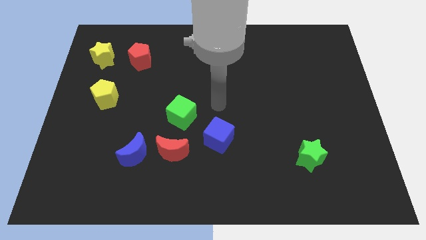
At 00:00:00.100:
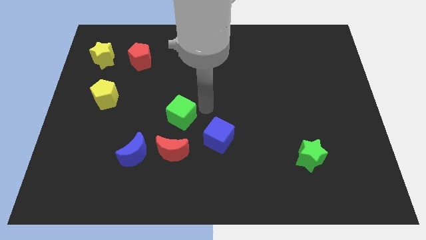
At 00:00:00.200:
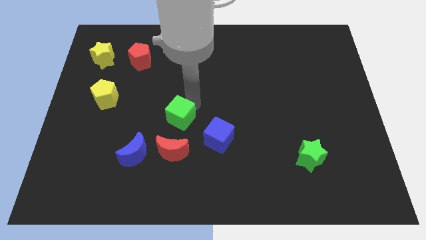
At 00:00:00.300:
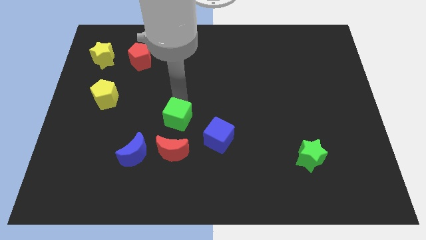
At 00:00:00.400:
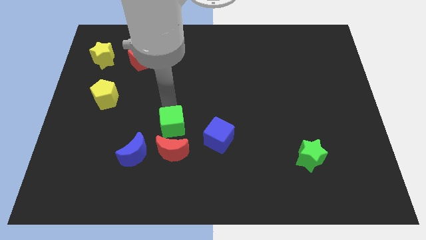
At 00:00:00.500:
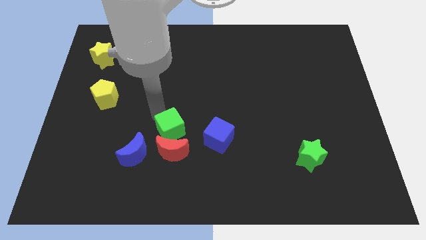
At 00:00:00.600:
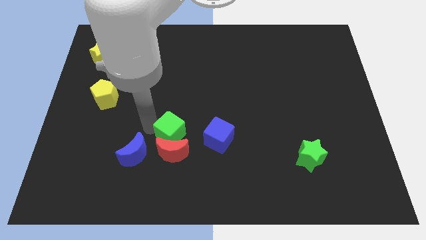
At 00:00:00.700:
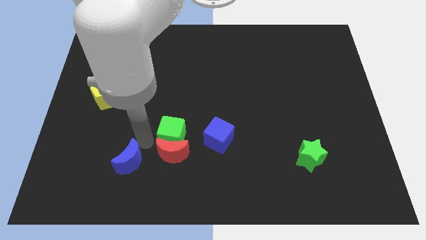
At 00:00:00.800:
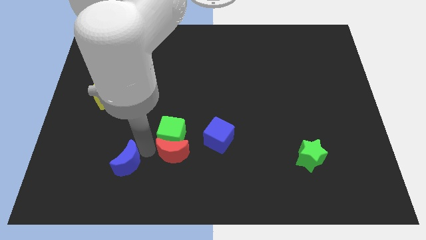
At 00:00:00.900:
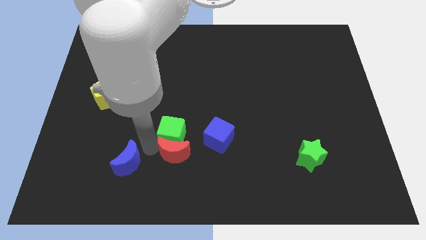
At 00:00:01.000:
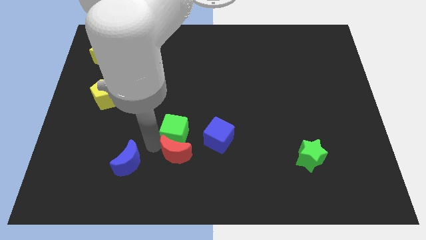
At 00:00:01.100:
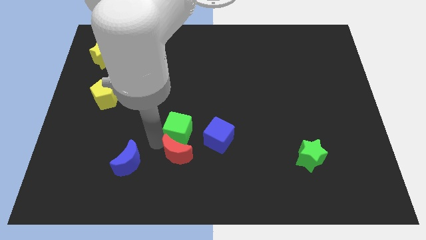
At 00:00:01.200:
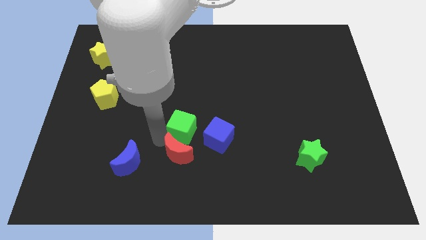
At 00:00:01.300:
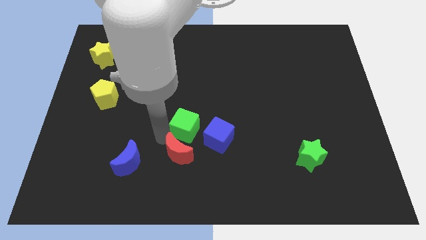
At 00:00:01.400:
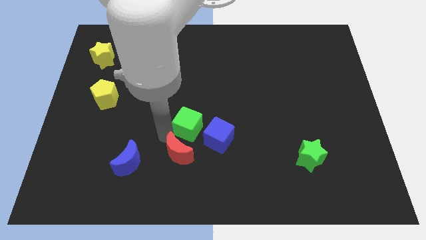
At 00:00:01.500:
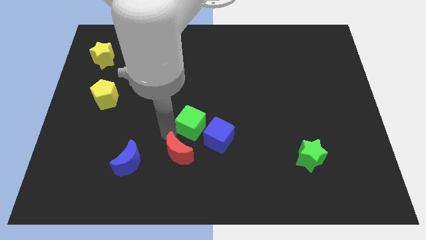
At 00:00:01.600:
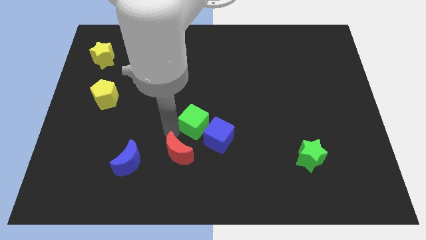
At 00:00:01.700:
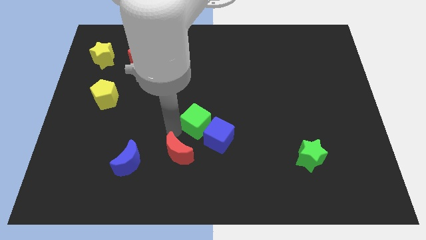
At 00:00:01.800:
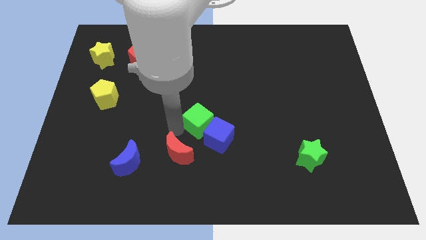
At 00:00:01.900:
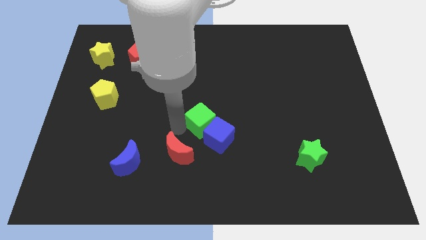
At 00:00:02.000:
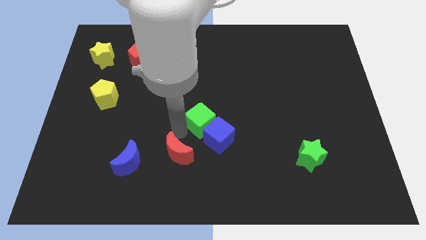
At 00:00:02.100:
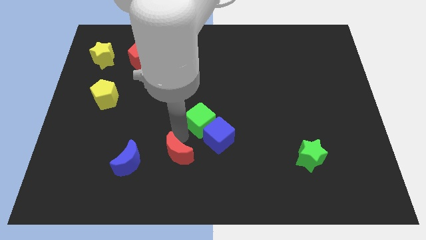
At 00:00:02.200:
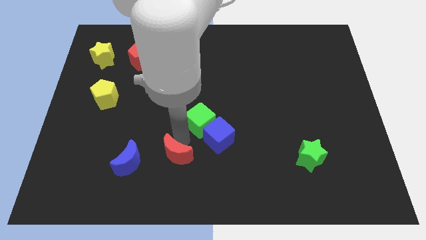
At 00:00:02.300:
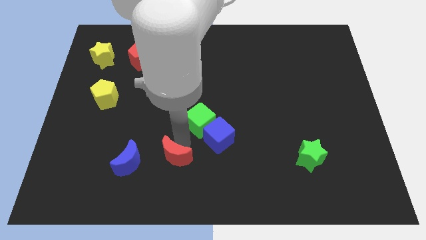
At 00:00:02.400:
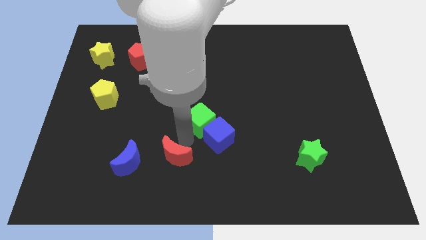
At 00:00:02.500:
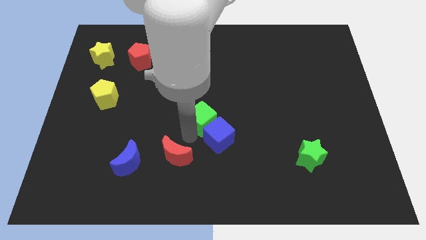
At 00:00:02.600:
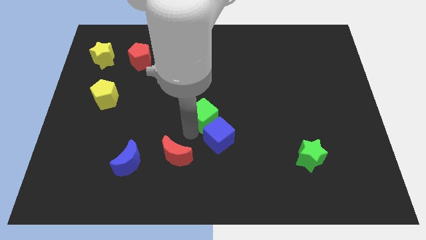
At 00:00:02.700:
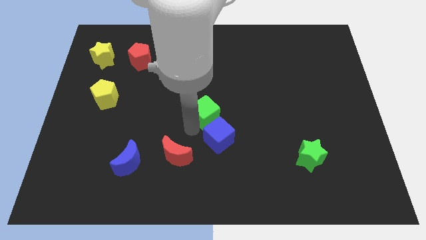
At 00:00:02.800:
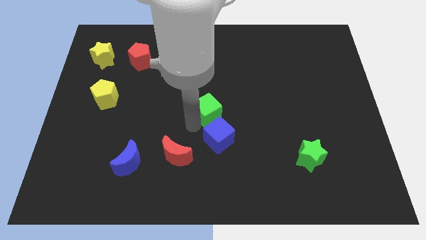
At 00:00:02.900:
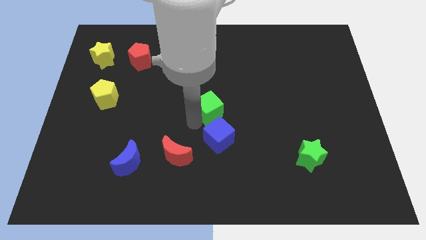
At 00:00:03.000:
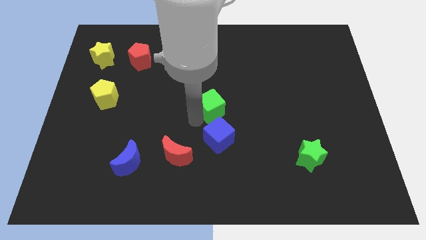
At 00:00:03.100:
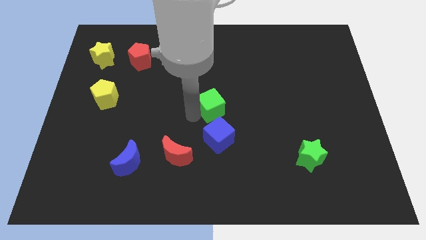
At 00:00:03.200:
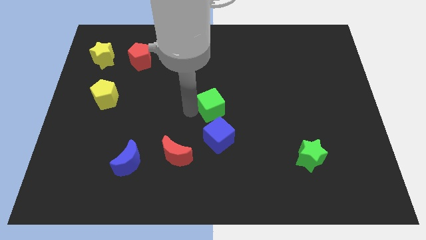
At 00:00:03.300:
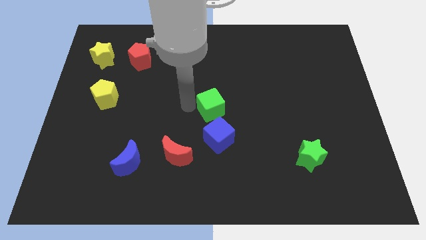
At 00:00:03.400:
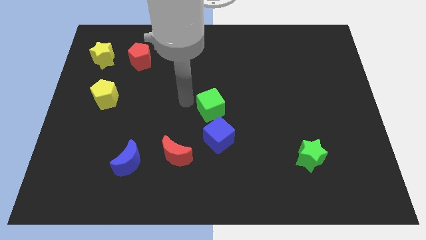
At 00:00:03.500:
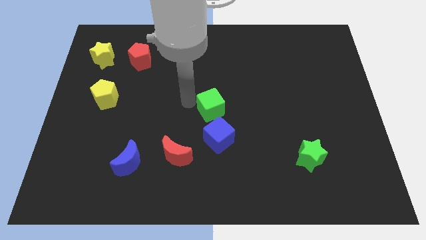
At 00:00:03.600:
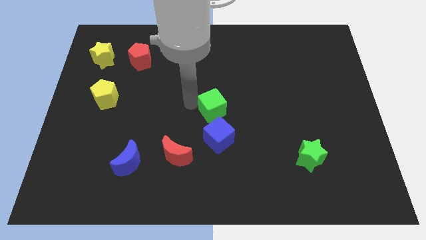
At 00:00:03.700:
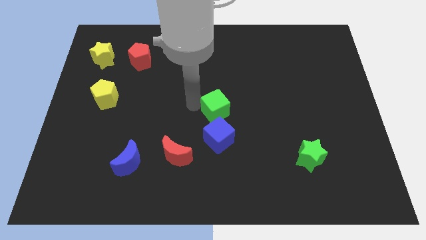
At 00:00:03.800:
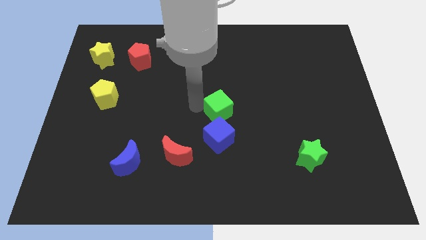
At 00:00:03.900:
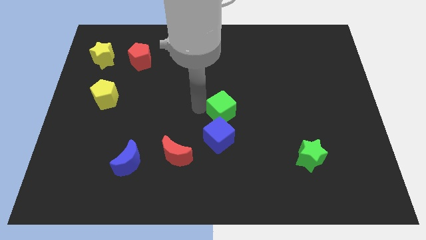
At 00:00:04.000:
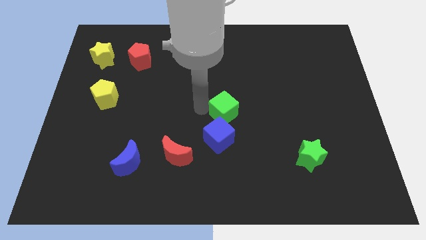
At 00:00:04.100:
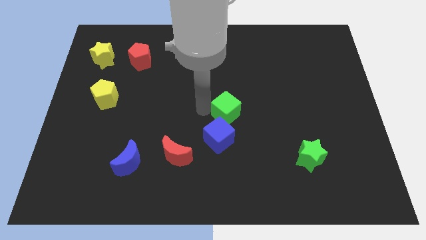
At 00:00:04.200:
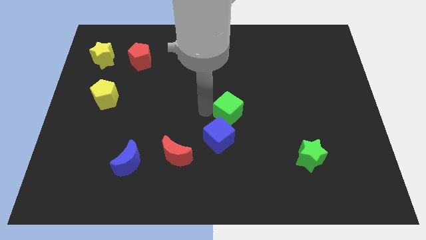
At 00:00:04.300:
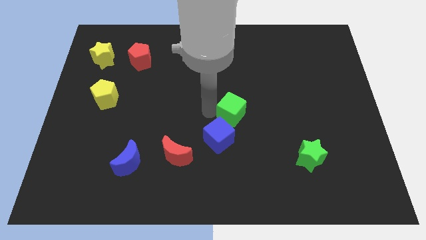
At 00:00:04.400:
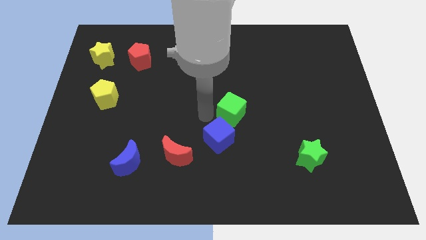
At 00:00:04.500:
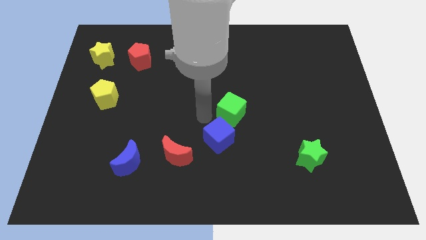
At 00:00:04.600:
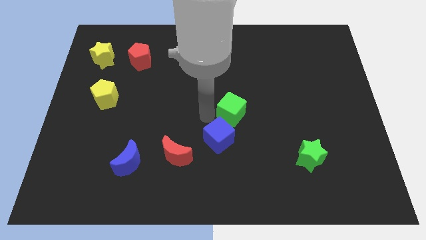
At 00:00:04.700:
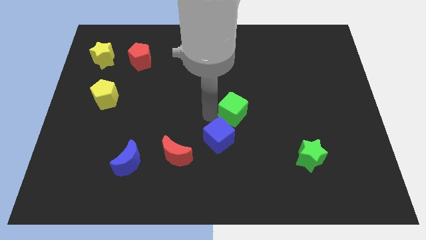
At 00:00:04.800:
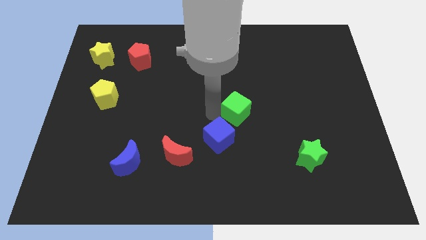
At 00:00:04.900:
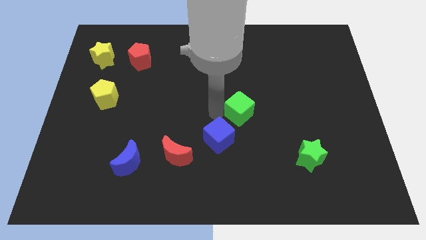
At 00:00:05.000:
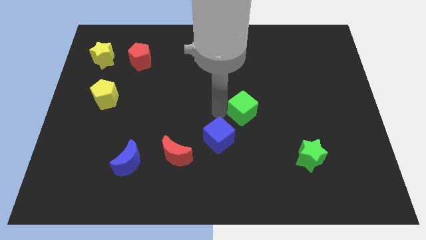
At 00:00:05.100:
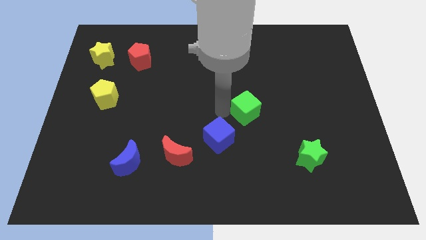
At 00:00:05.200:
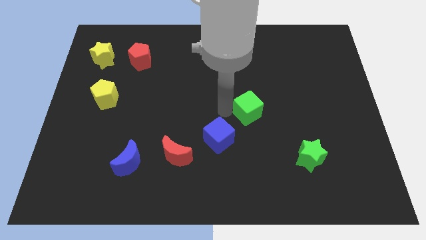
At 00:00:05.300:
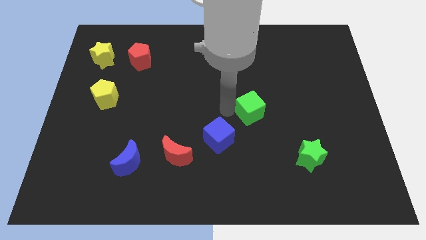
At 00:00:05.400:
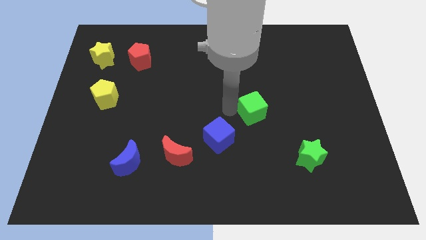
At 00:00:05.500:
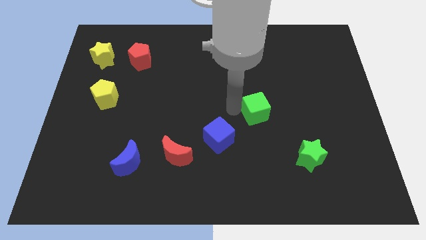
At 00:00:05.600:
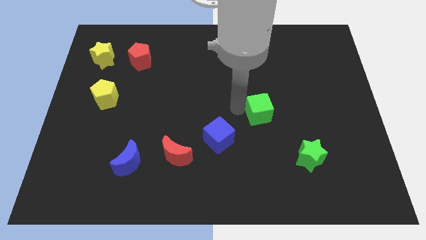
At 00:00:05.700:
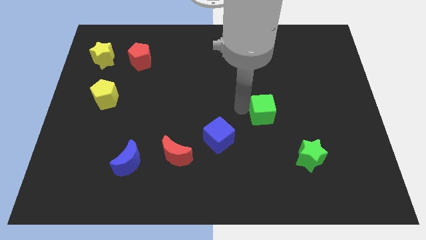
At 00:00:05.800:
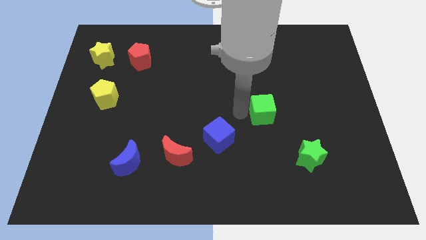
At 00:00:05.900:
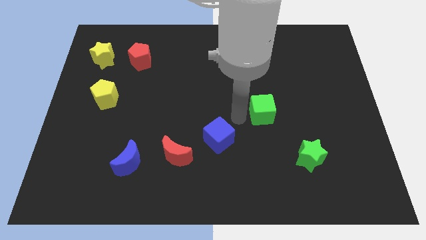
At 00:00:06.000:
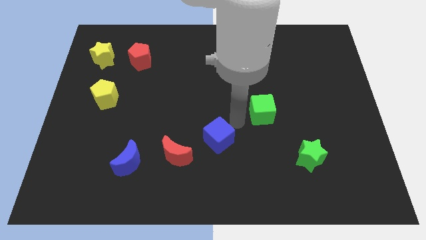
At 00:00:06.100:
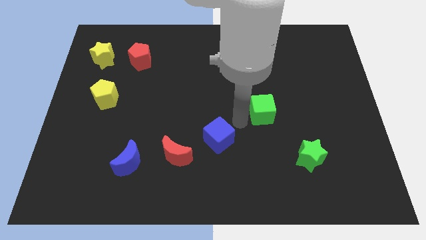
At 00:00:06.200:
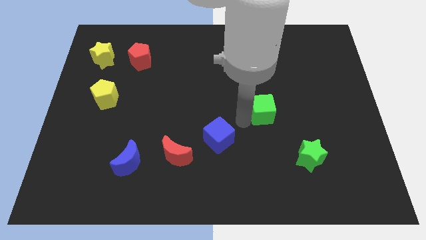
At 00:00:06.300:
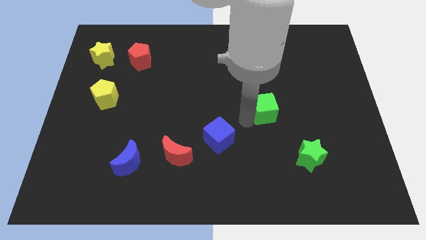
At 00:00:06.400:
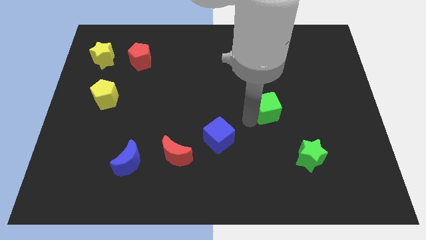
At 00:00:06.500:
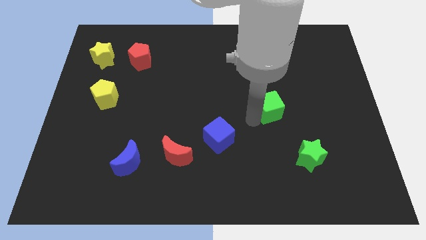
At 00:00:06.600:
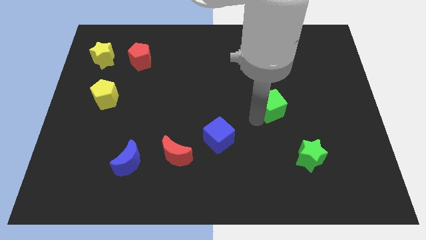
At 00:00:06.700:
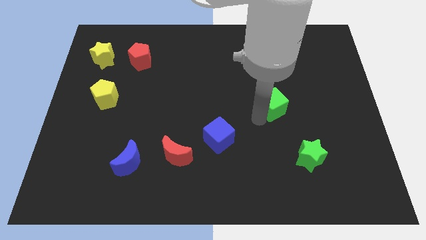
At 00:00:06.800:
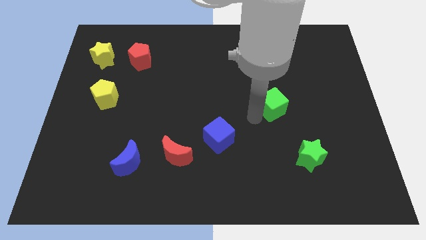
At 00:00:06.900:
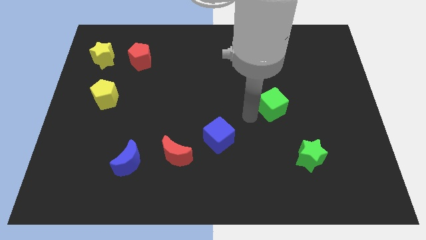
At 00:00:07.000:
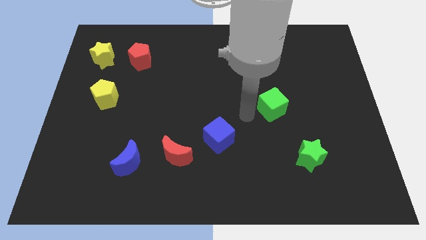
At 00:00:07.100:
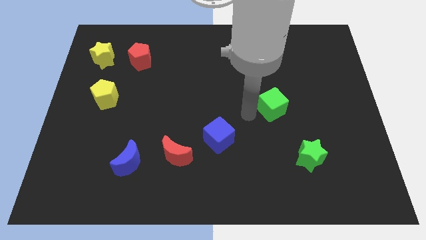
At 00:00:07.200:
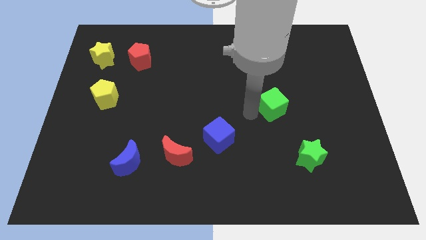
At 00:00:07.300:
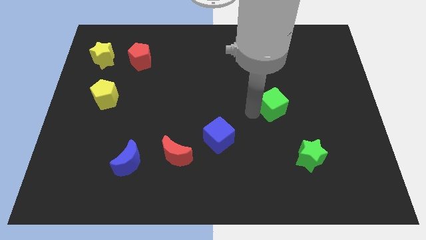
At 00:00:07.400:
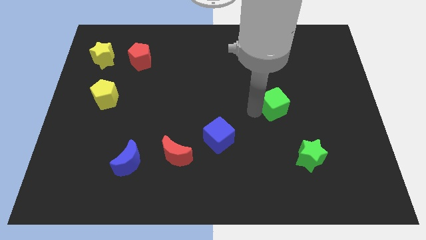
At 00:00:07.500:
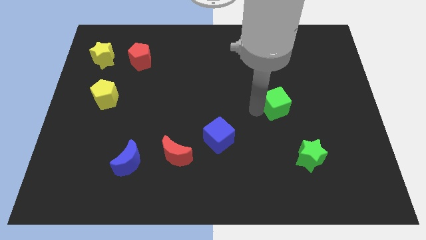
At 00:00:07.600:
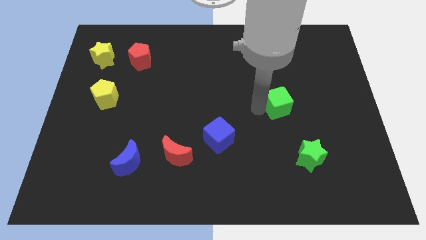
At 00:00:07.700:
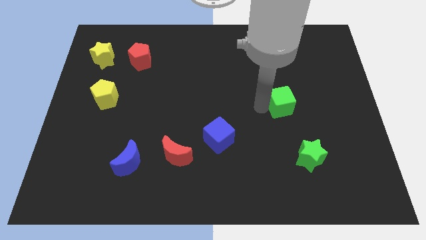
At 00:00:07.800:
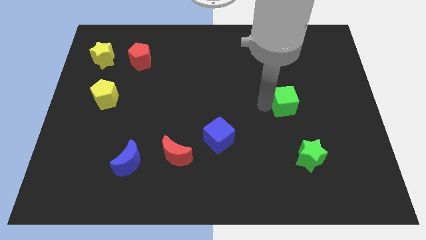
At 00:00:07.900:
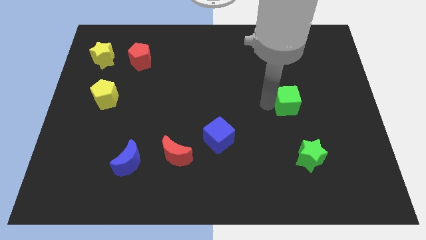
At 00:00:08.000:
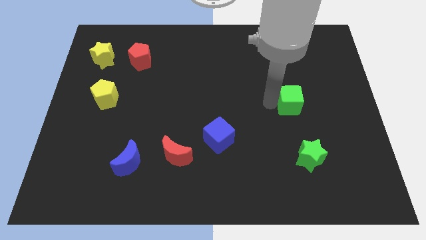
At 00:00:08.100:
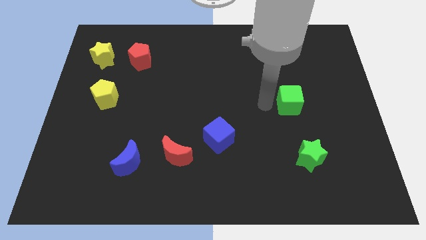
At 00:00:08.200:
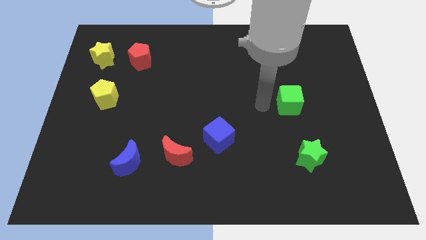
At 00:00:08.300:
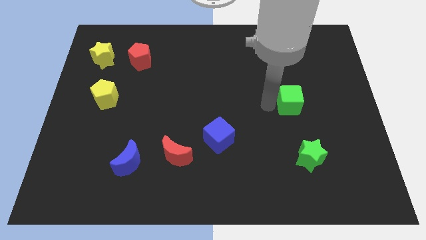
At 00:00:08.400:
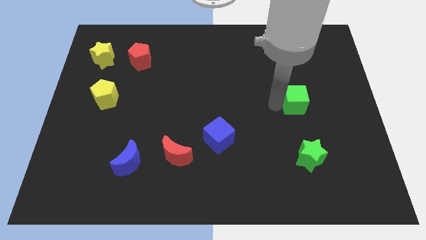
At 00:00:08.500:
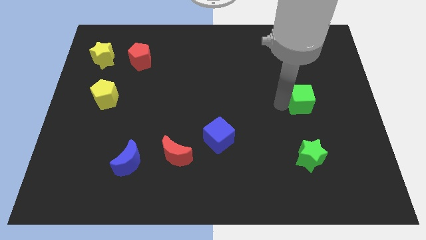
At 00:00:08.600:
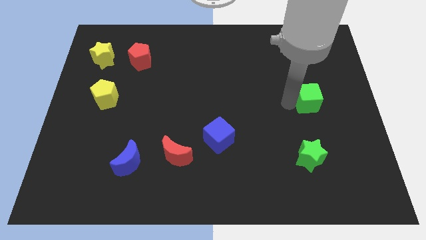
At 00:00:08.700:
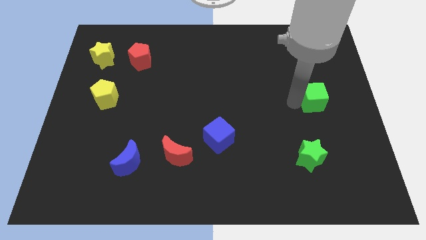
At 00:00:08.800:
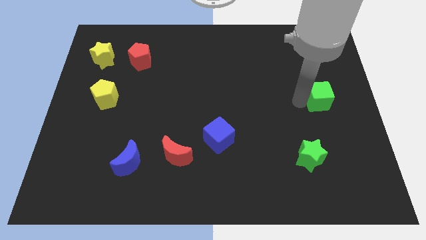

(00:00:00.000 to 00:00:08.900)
slide the green cube to the right side
